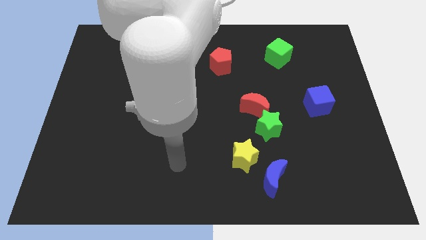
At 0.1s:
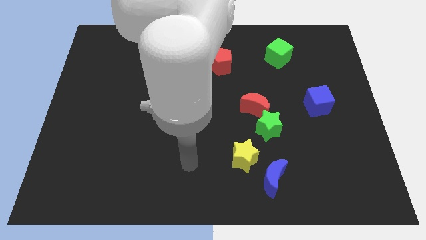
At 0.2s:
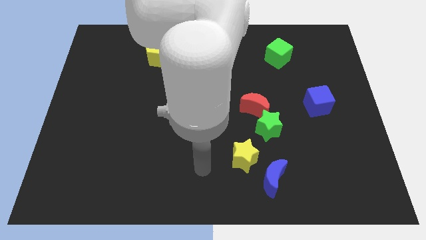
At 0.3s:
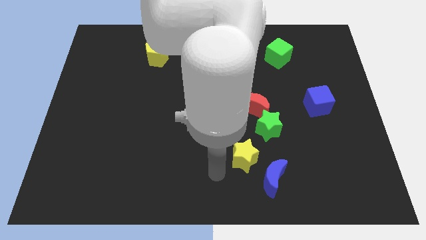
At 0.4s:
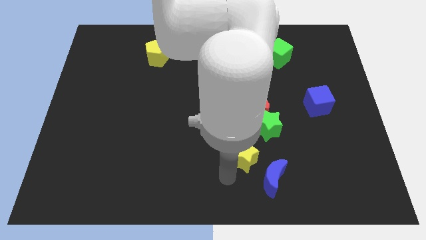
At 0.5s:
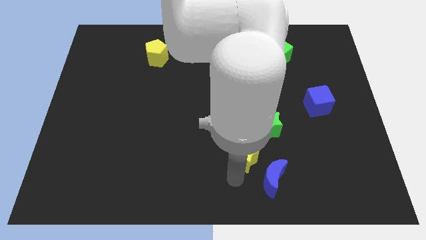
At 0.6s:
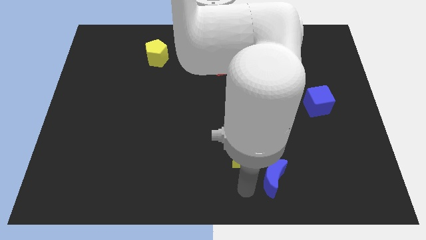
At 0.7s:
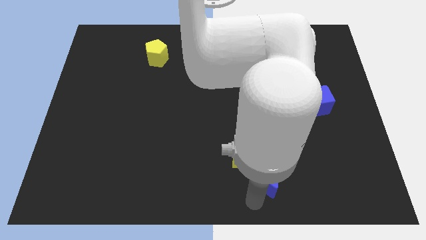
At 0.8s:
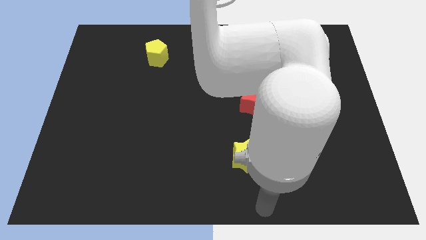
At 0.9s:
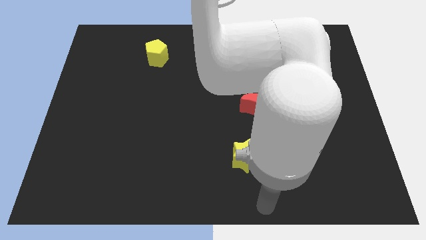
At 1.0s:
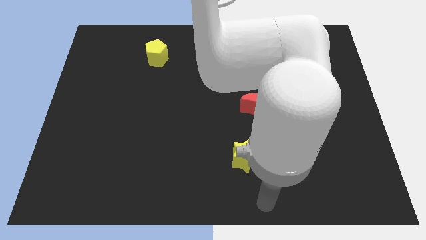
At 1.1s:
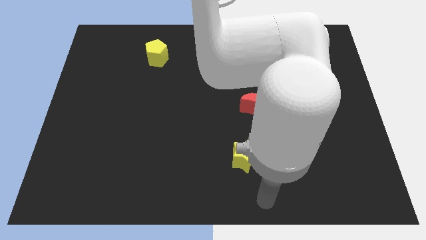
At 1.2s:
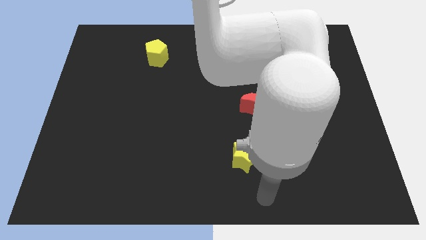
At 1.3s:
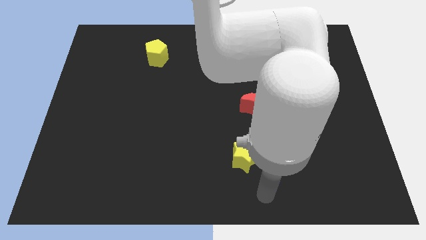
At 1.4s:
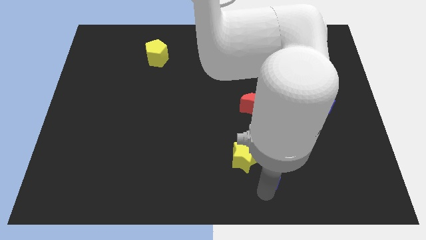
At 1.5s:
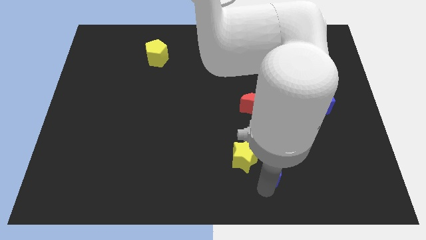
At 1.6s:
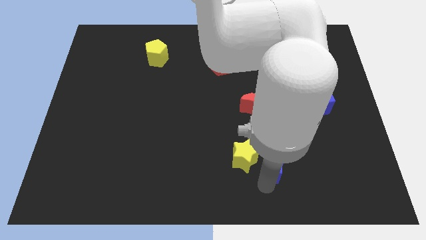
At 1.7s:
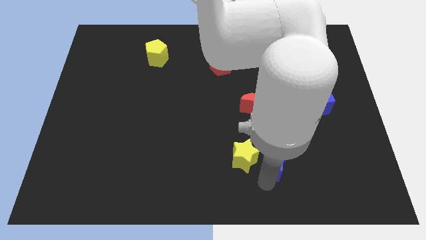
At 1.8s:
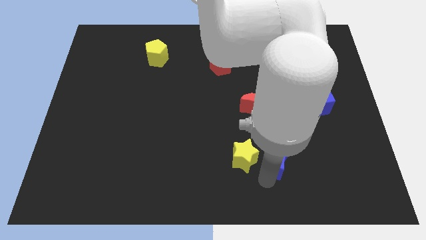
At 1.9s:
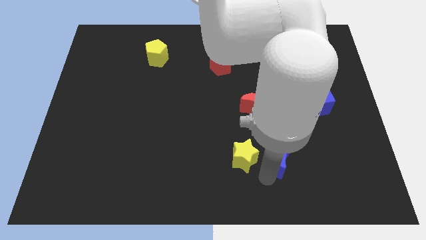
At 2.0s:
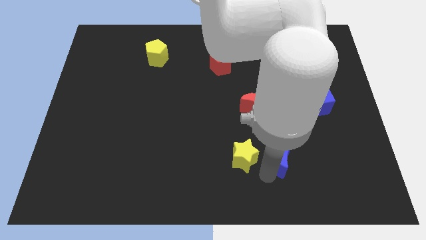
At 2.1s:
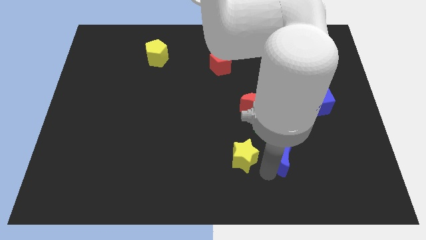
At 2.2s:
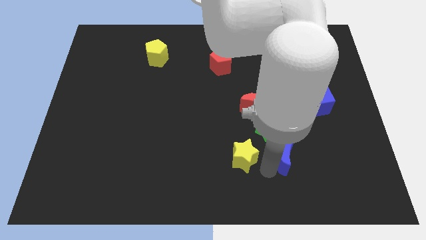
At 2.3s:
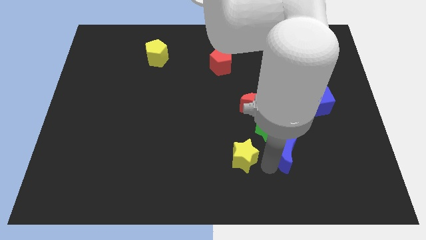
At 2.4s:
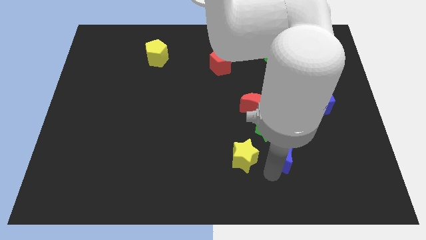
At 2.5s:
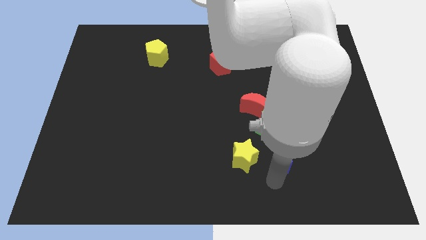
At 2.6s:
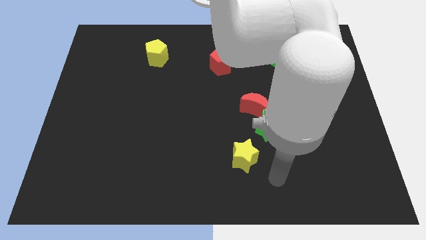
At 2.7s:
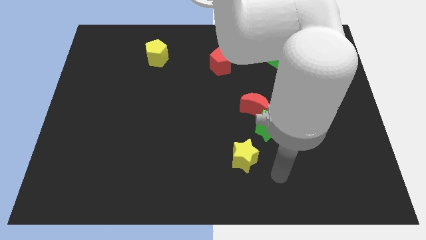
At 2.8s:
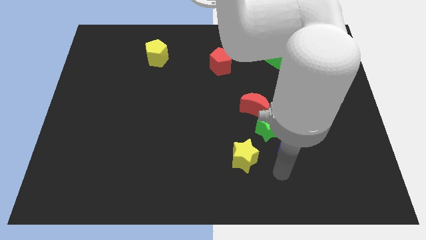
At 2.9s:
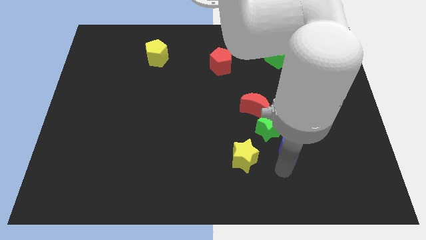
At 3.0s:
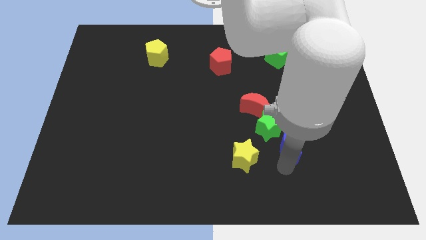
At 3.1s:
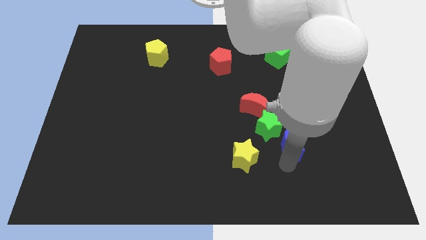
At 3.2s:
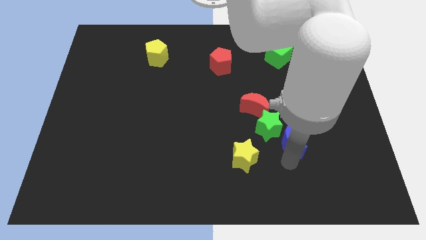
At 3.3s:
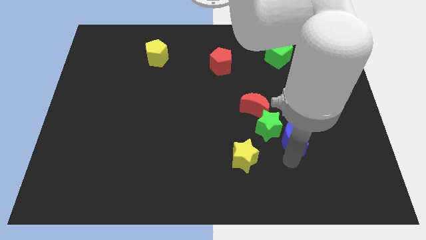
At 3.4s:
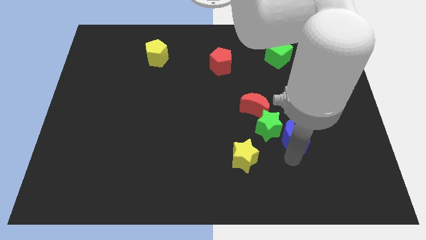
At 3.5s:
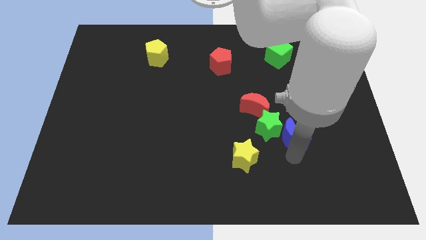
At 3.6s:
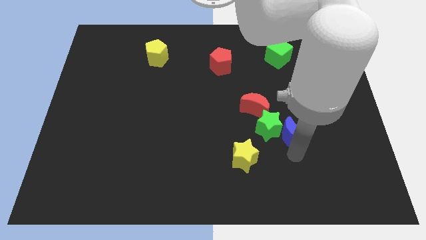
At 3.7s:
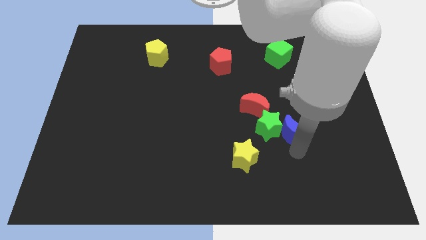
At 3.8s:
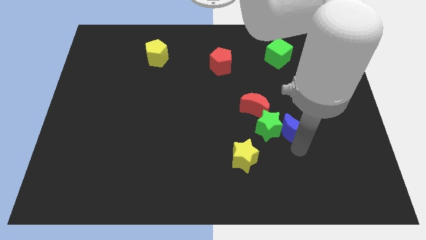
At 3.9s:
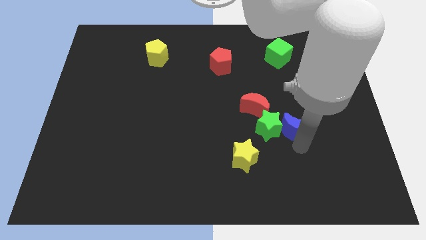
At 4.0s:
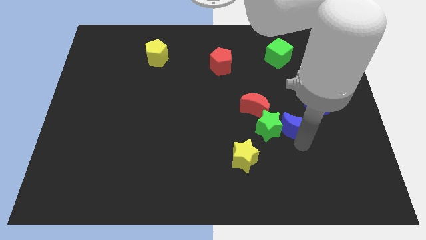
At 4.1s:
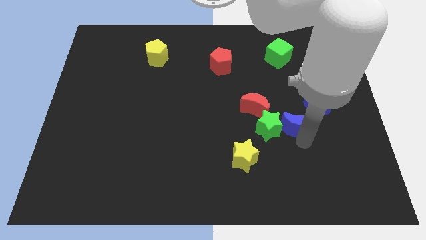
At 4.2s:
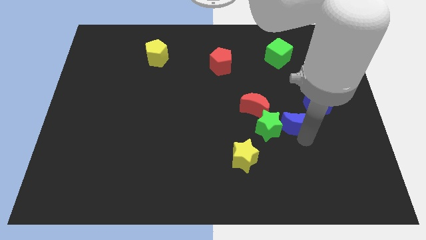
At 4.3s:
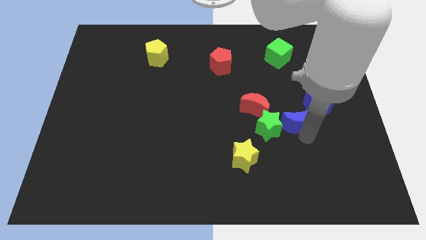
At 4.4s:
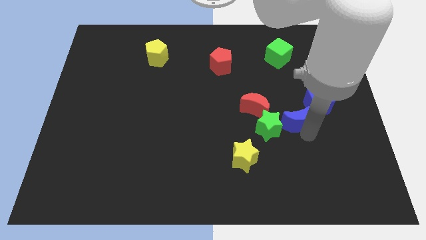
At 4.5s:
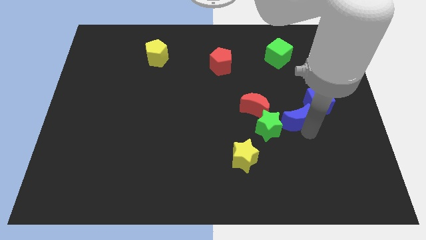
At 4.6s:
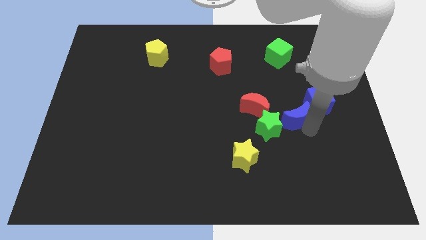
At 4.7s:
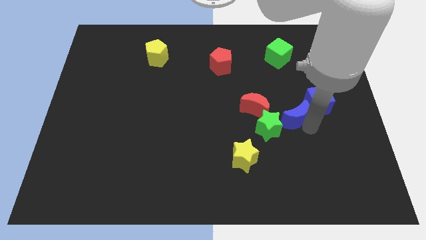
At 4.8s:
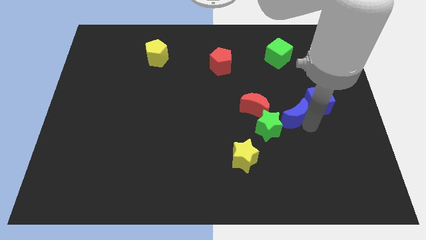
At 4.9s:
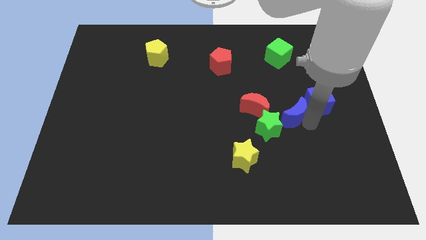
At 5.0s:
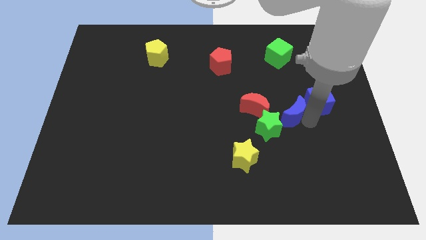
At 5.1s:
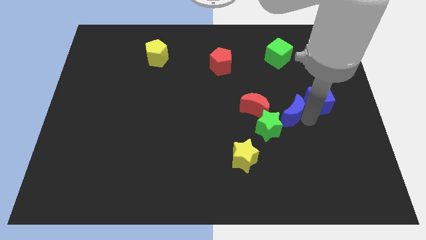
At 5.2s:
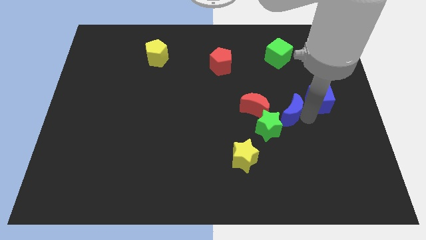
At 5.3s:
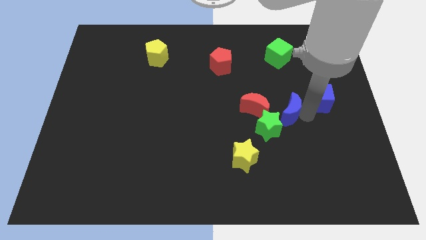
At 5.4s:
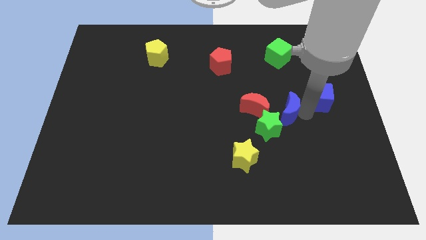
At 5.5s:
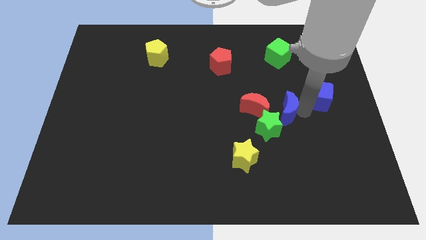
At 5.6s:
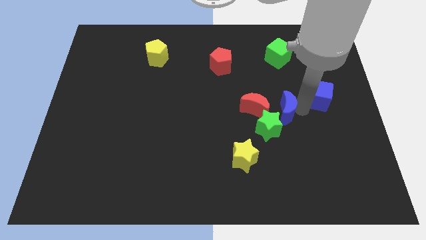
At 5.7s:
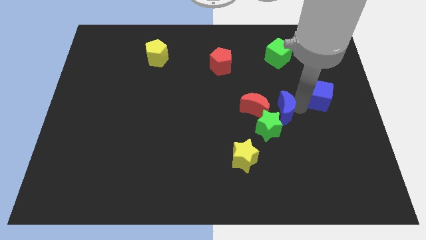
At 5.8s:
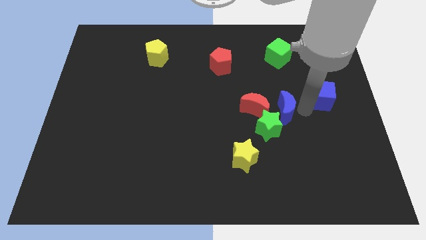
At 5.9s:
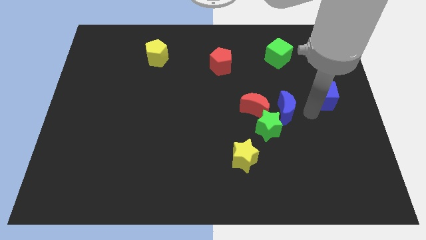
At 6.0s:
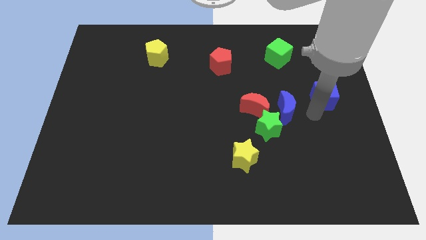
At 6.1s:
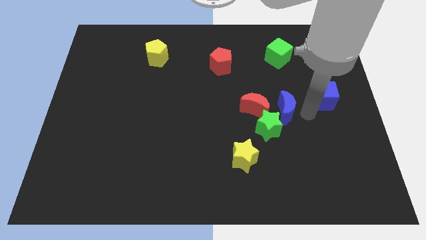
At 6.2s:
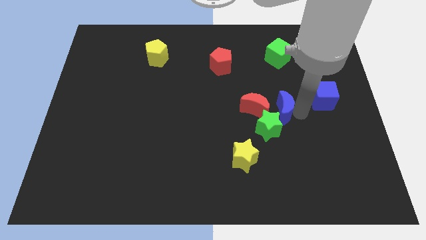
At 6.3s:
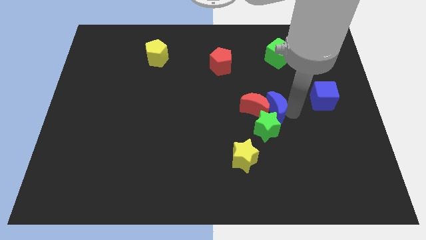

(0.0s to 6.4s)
put the blue moon close to the red moon

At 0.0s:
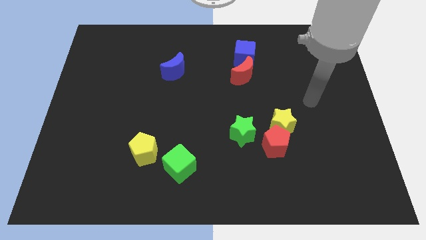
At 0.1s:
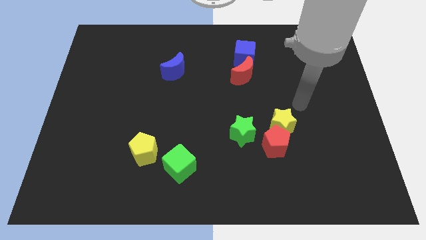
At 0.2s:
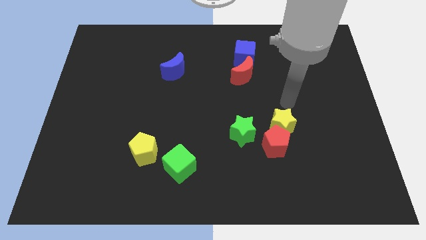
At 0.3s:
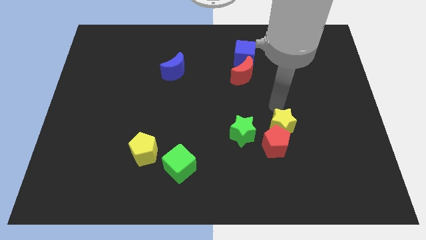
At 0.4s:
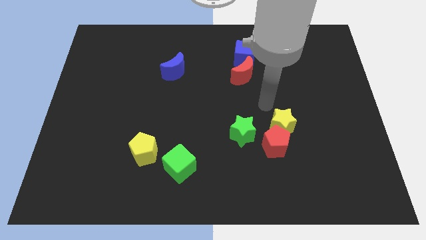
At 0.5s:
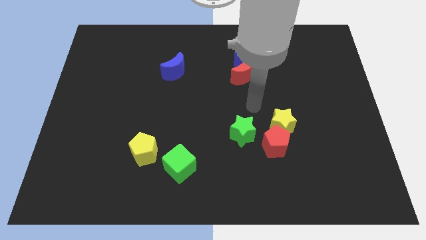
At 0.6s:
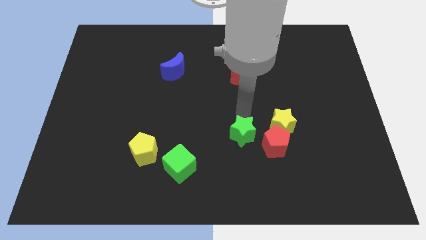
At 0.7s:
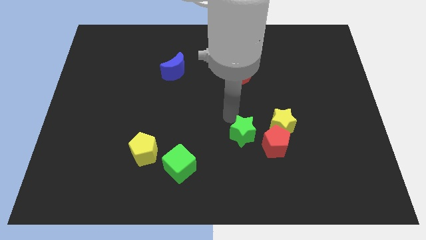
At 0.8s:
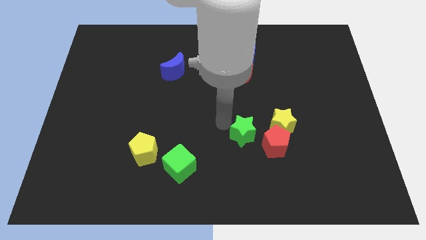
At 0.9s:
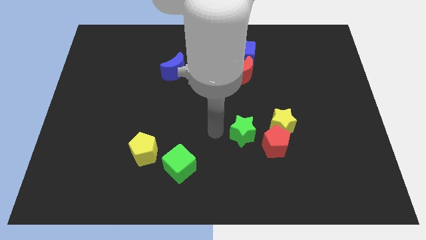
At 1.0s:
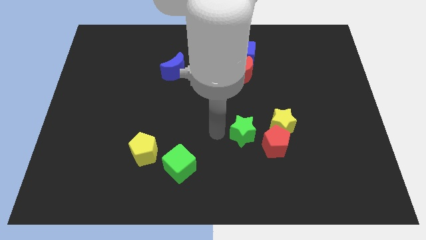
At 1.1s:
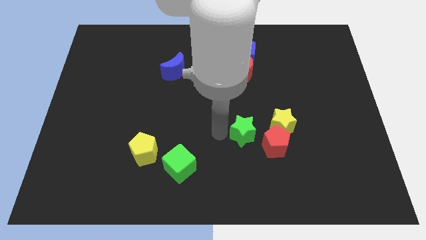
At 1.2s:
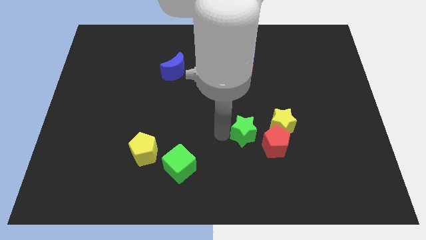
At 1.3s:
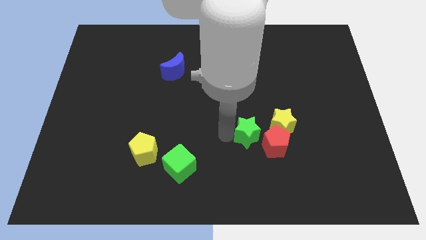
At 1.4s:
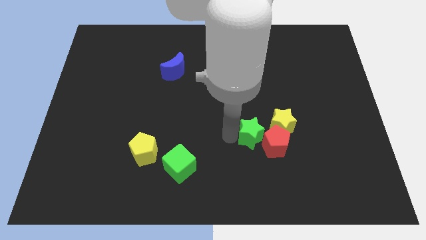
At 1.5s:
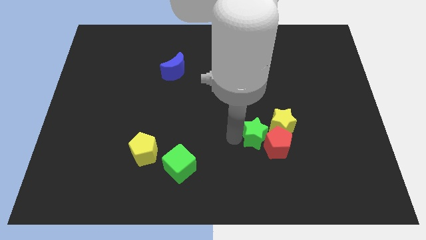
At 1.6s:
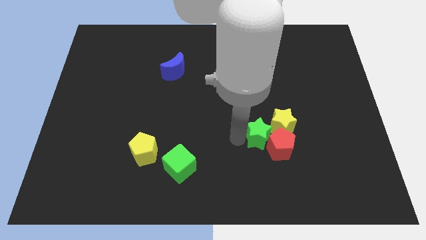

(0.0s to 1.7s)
move the green star to the yellow star
